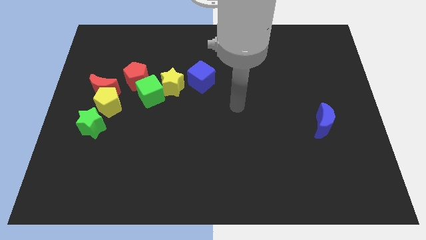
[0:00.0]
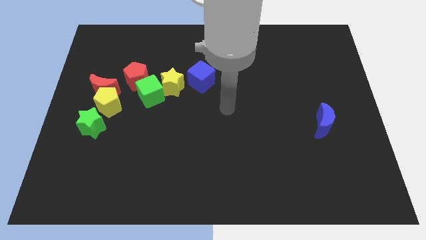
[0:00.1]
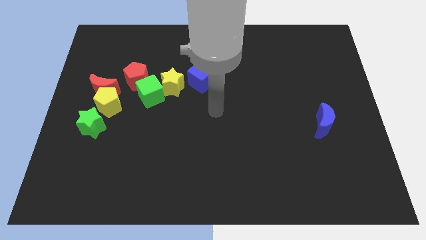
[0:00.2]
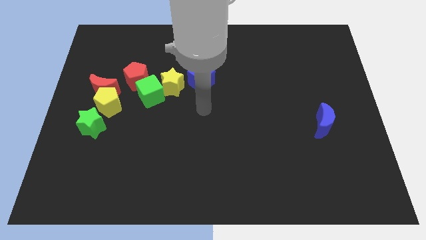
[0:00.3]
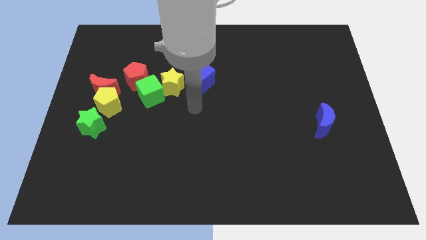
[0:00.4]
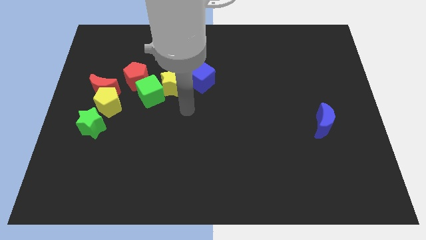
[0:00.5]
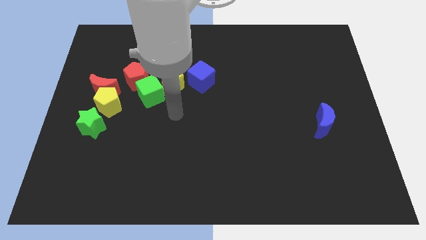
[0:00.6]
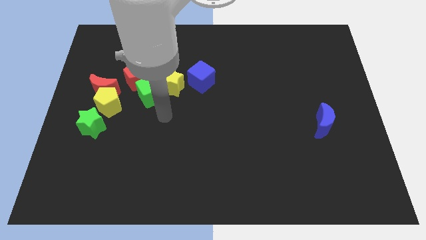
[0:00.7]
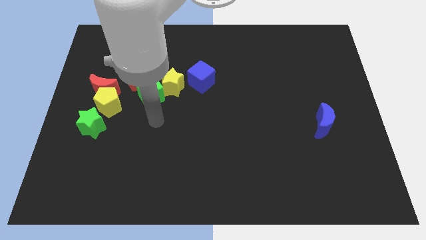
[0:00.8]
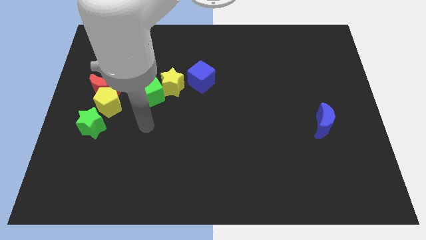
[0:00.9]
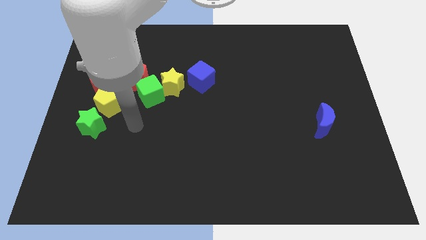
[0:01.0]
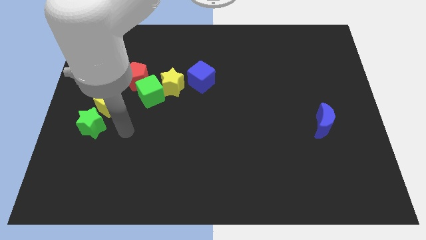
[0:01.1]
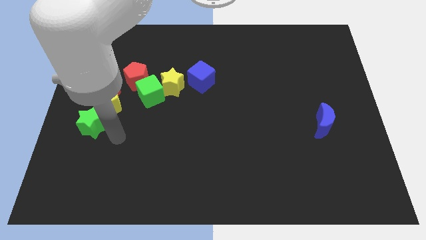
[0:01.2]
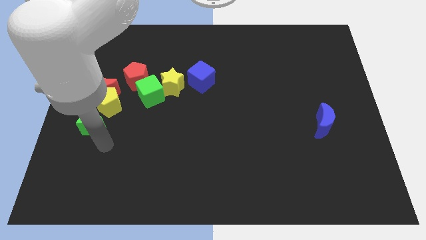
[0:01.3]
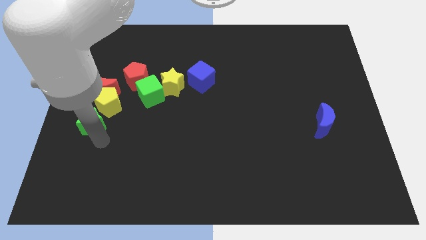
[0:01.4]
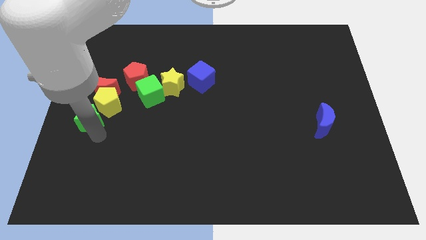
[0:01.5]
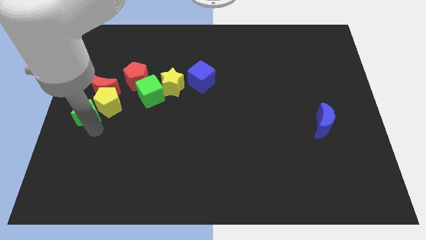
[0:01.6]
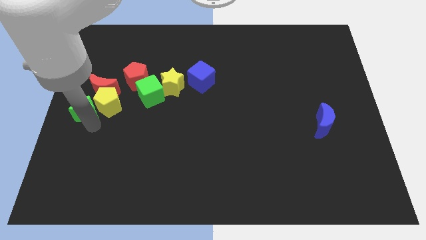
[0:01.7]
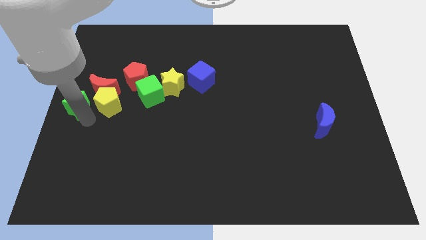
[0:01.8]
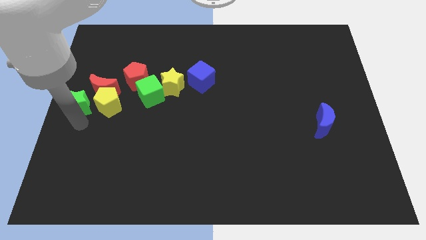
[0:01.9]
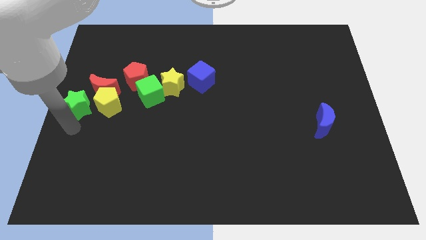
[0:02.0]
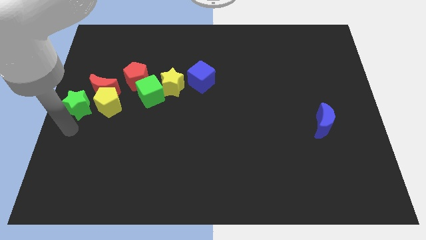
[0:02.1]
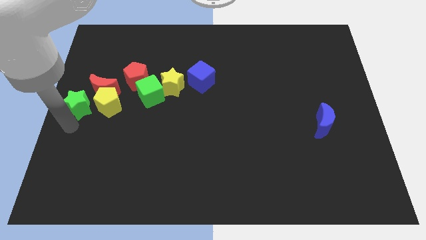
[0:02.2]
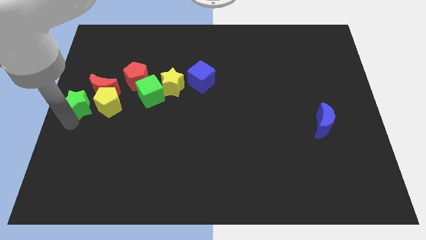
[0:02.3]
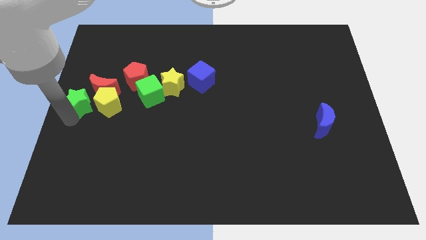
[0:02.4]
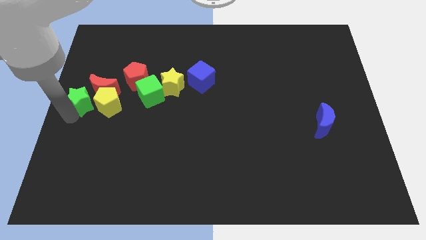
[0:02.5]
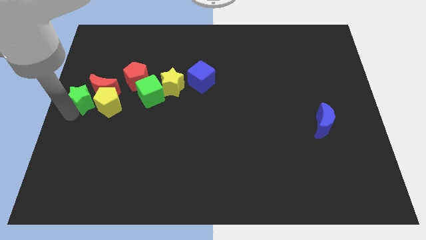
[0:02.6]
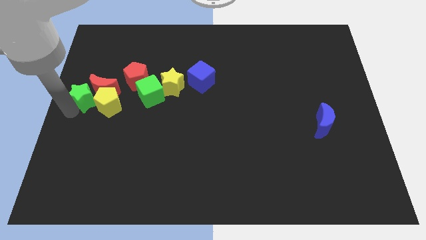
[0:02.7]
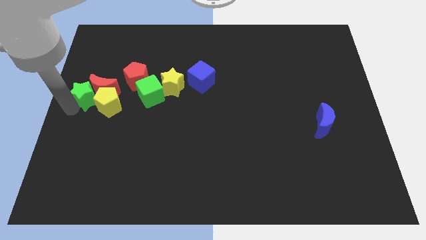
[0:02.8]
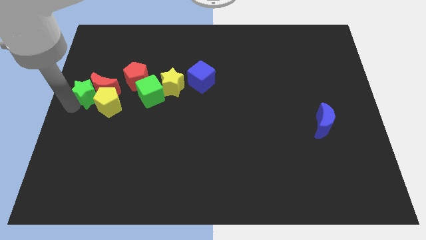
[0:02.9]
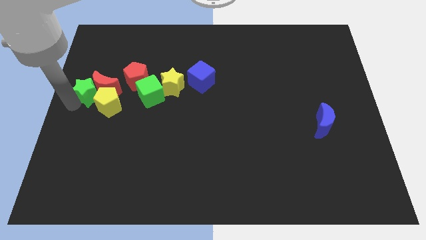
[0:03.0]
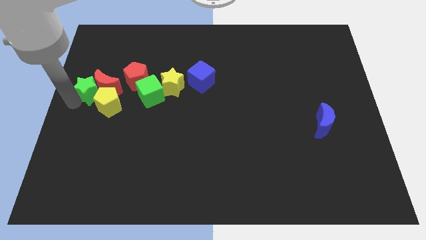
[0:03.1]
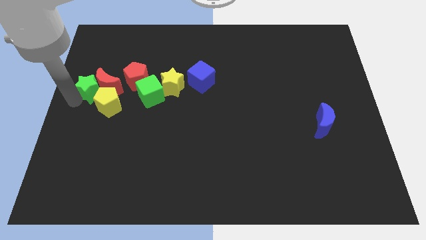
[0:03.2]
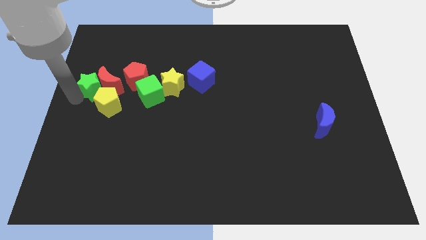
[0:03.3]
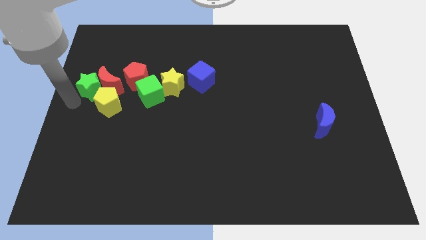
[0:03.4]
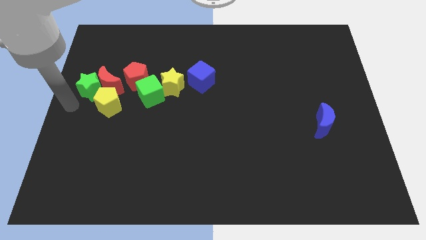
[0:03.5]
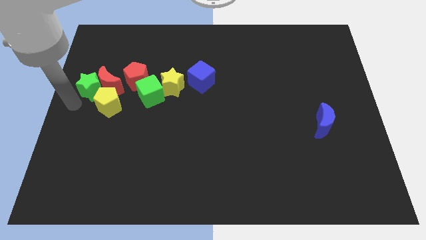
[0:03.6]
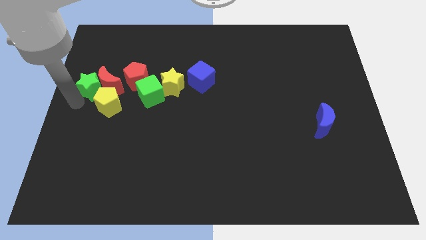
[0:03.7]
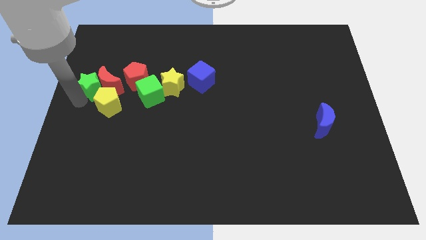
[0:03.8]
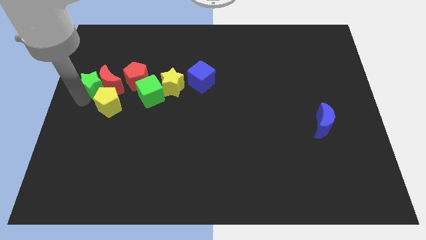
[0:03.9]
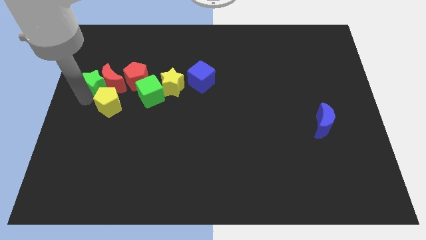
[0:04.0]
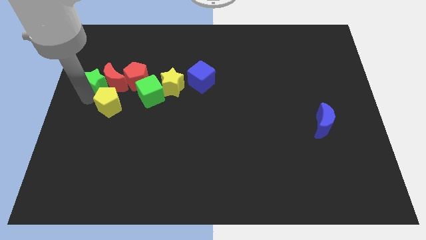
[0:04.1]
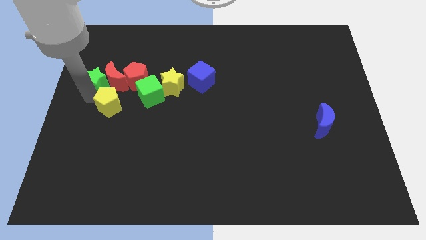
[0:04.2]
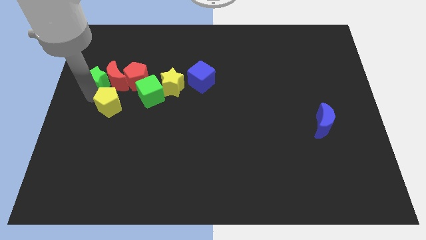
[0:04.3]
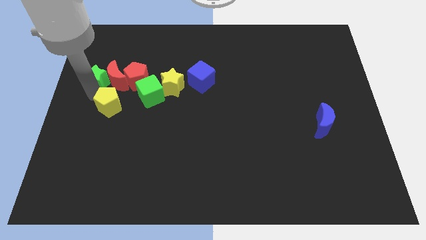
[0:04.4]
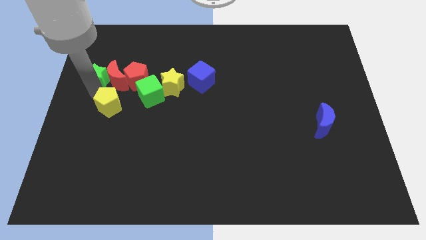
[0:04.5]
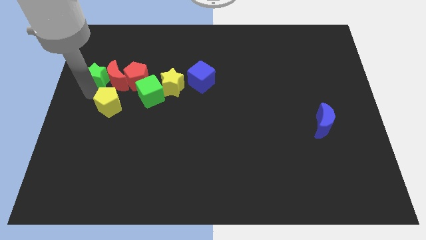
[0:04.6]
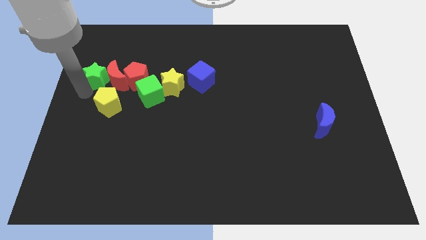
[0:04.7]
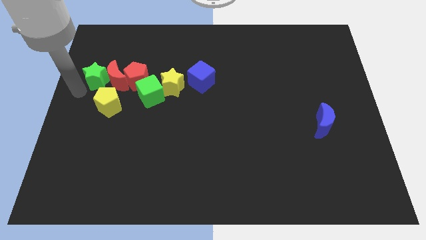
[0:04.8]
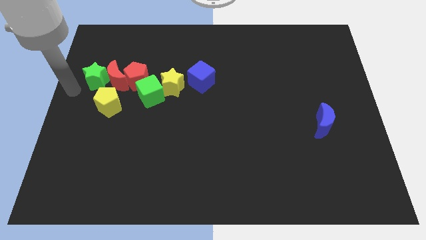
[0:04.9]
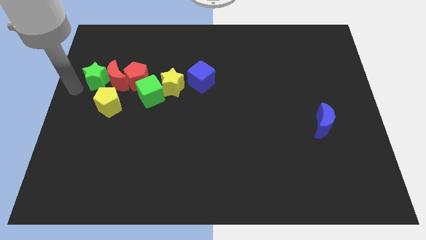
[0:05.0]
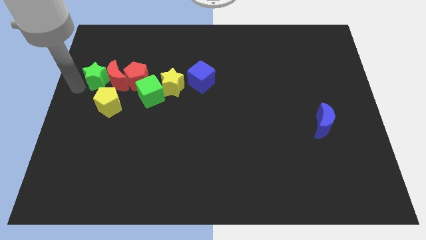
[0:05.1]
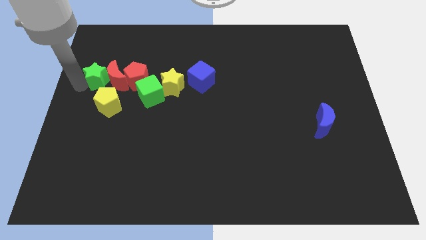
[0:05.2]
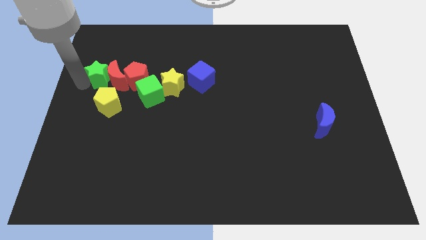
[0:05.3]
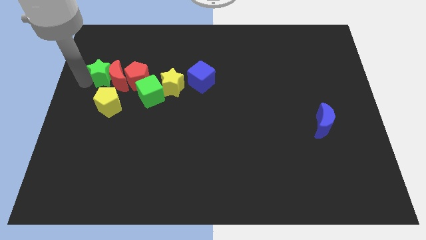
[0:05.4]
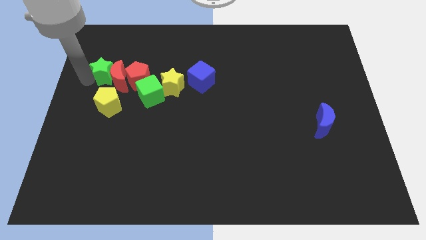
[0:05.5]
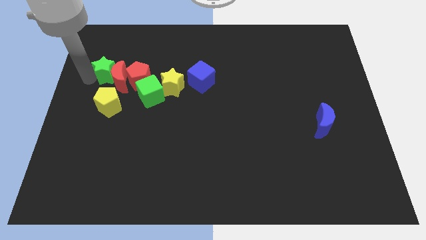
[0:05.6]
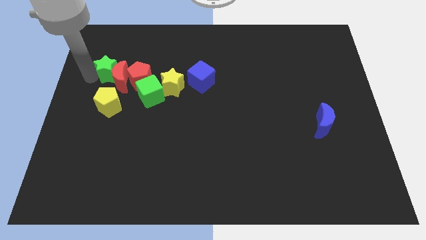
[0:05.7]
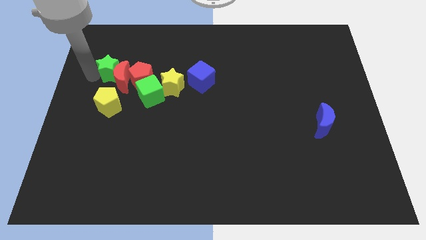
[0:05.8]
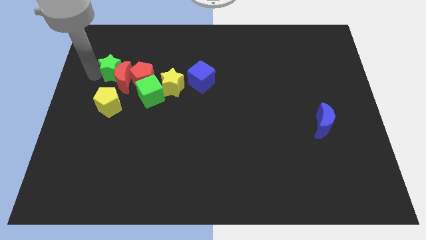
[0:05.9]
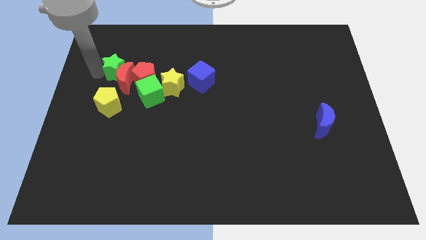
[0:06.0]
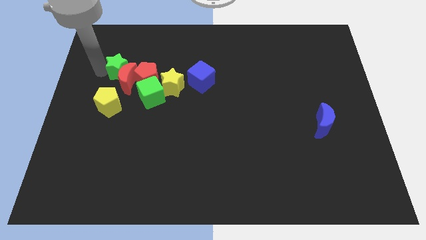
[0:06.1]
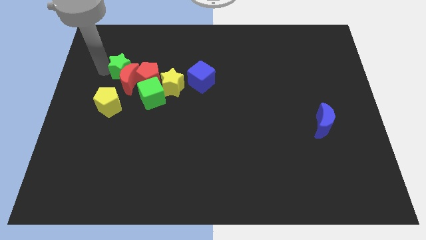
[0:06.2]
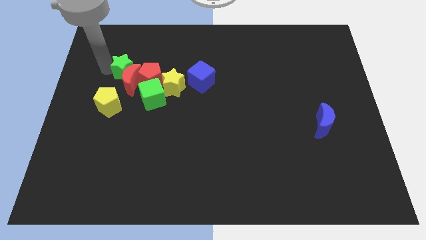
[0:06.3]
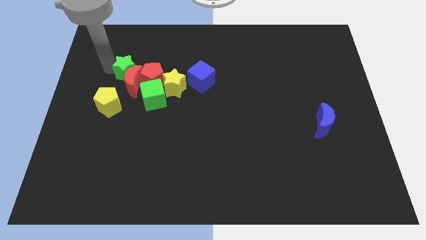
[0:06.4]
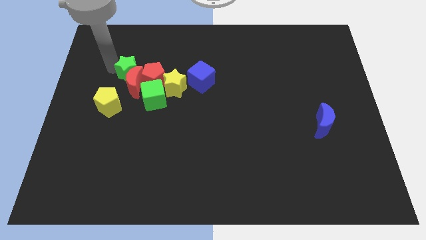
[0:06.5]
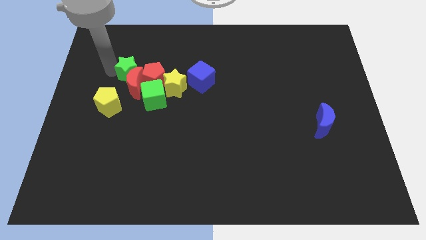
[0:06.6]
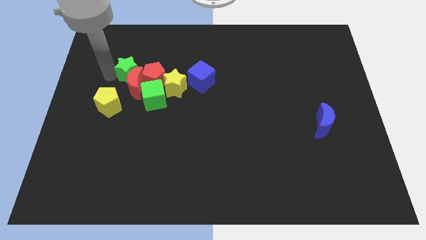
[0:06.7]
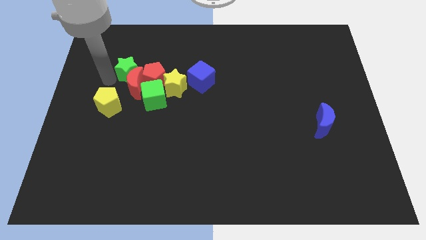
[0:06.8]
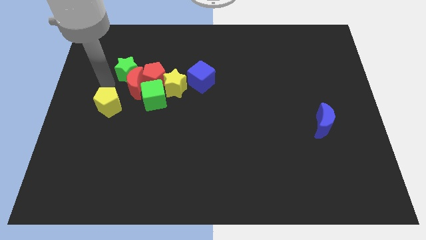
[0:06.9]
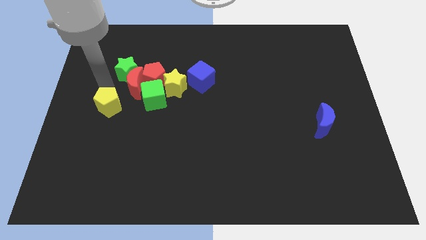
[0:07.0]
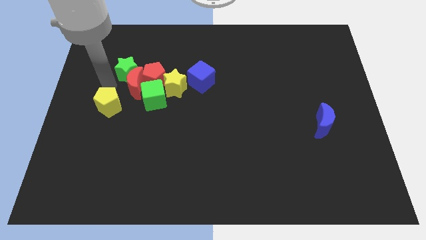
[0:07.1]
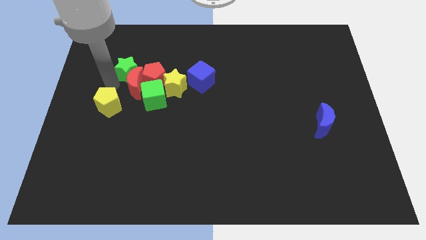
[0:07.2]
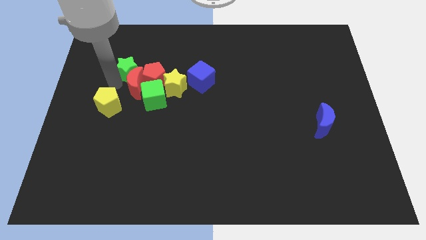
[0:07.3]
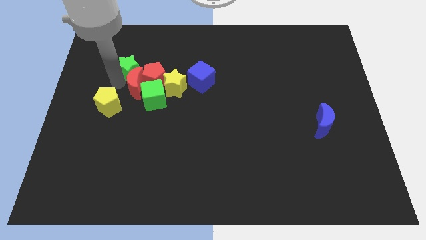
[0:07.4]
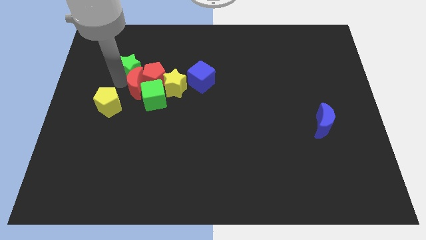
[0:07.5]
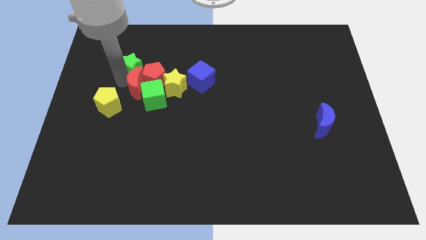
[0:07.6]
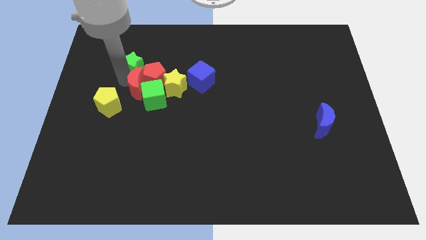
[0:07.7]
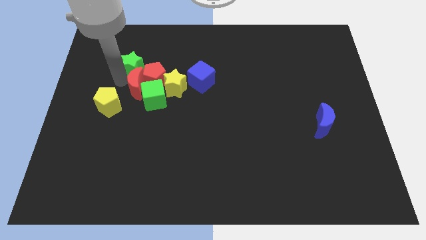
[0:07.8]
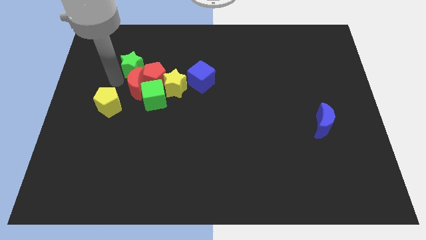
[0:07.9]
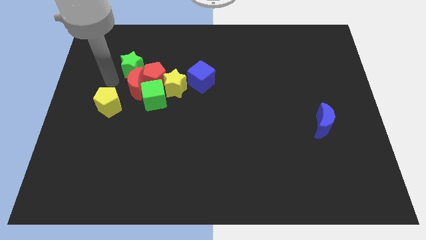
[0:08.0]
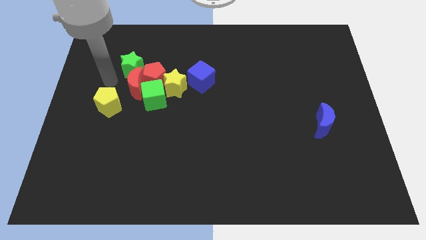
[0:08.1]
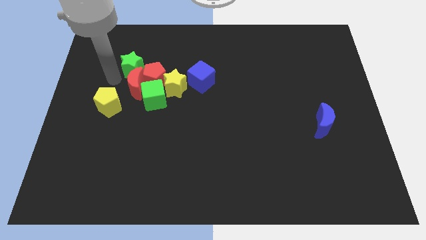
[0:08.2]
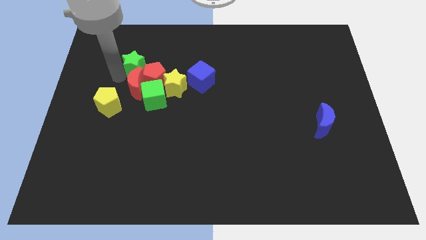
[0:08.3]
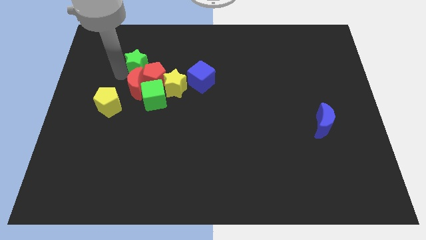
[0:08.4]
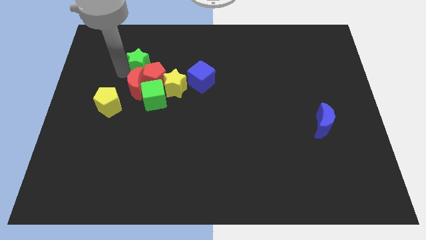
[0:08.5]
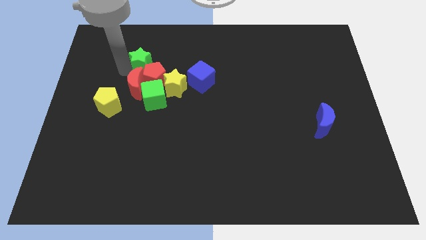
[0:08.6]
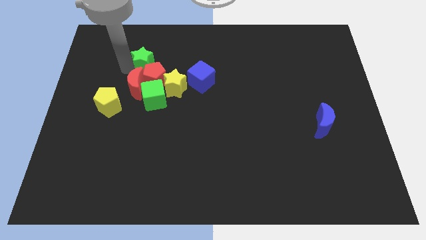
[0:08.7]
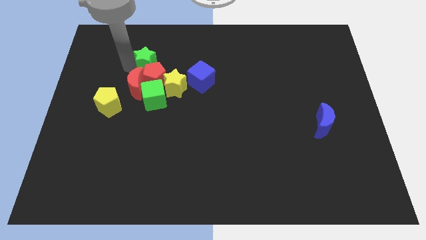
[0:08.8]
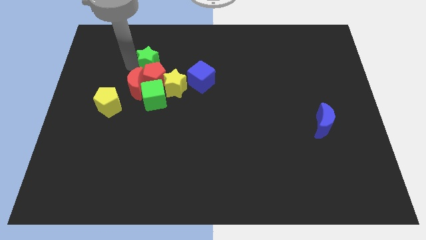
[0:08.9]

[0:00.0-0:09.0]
slide the green star up and to the right
